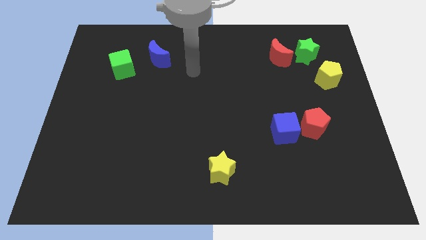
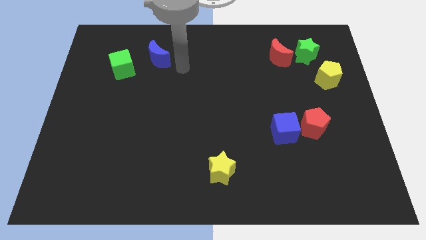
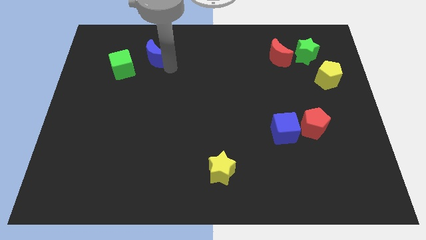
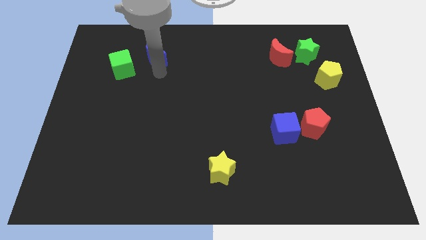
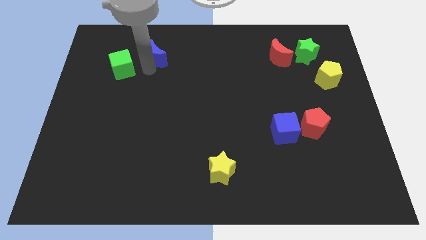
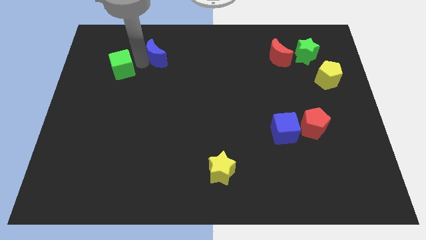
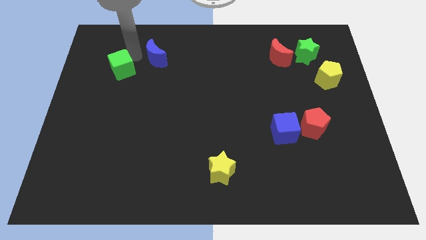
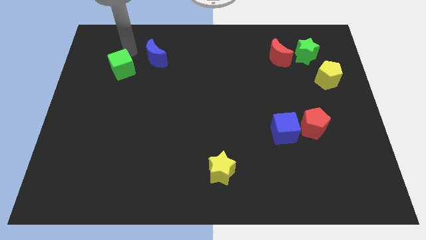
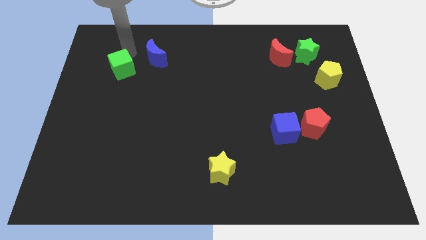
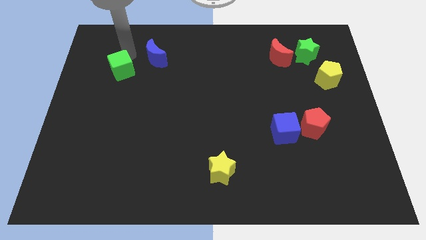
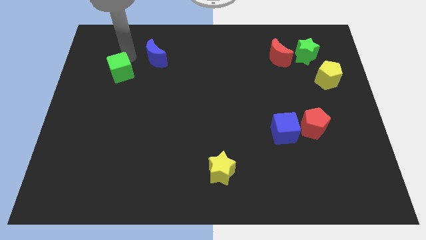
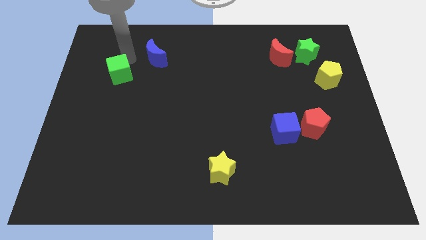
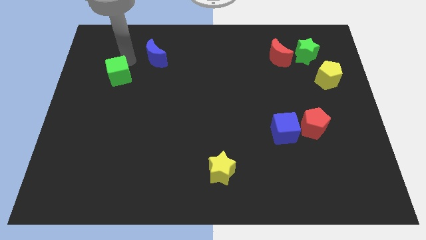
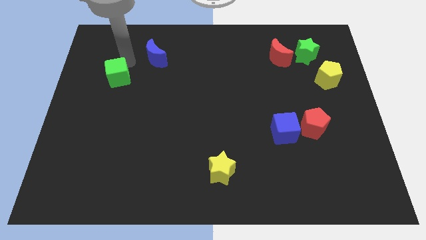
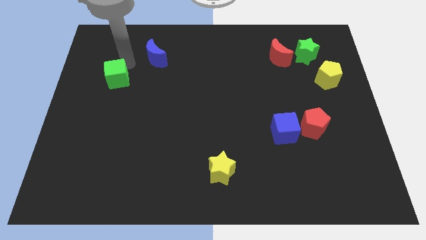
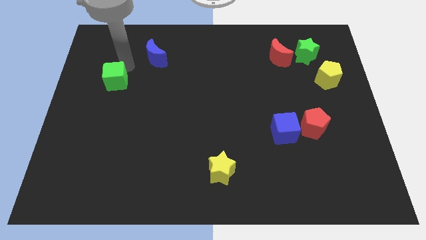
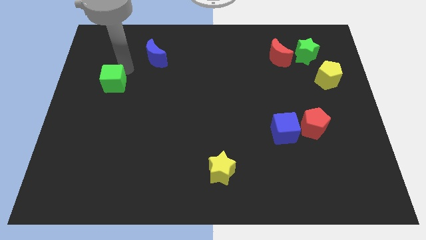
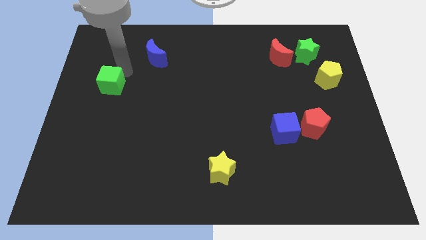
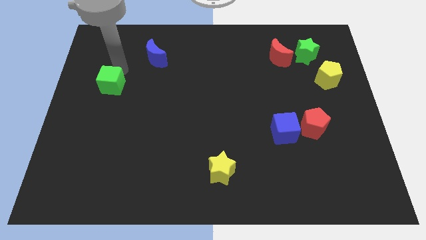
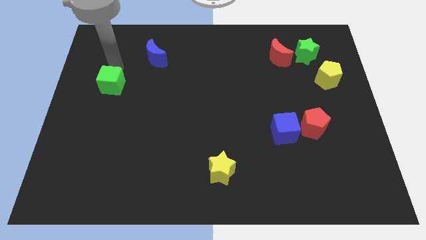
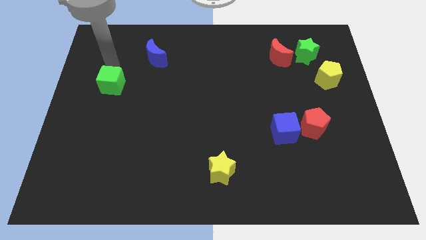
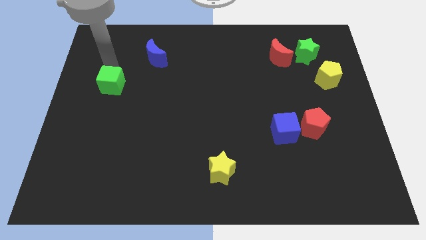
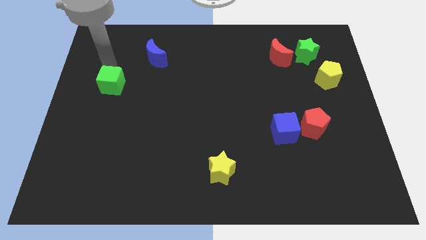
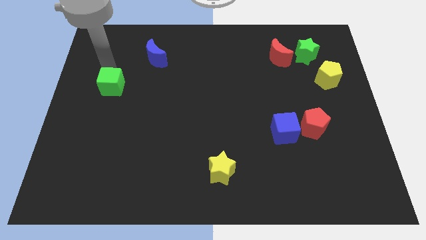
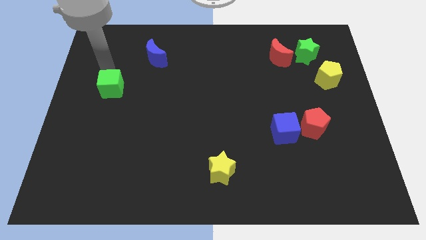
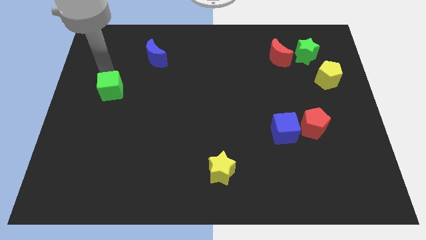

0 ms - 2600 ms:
slightly slide the green cube downwards

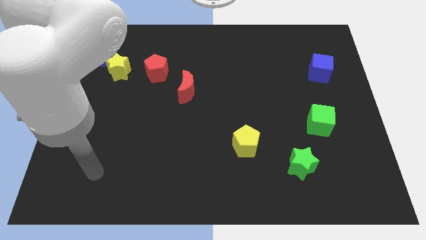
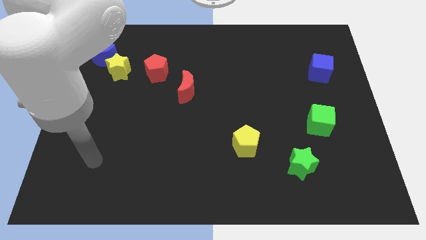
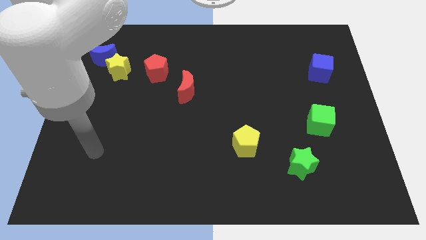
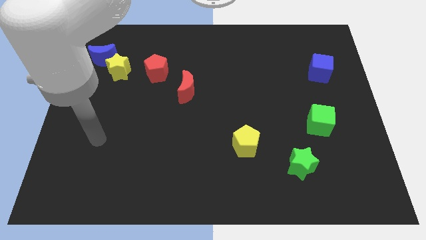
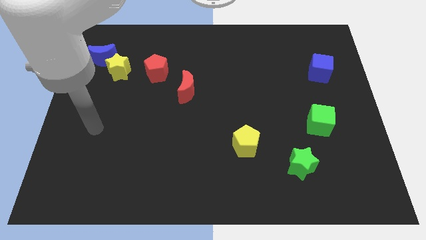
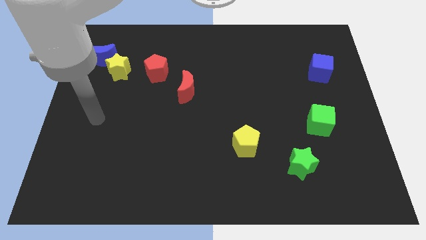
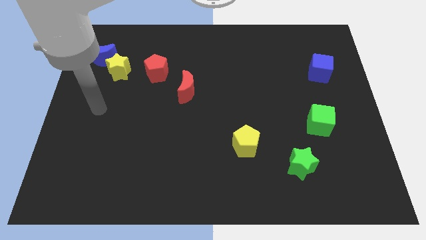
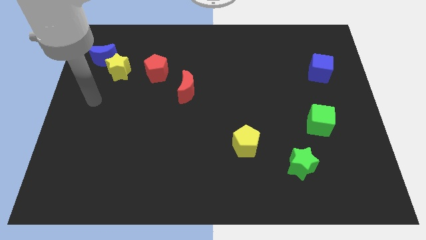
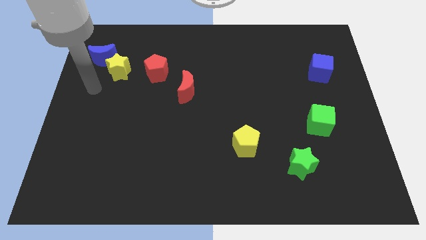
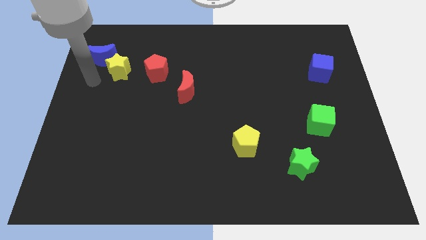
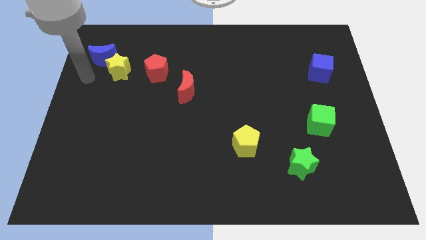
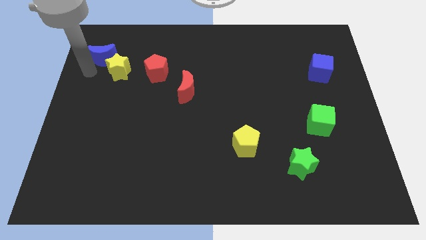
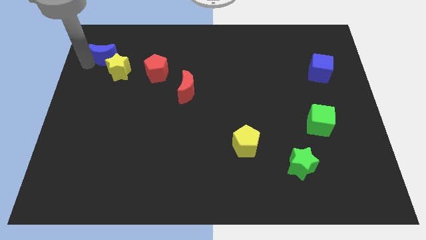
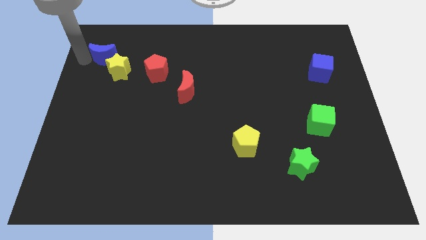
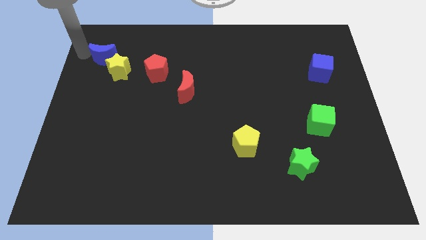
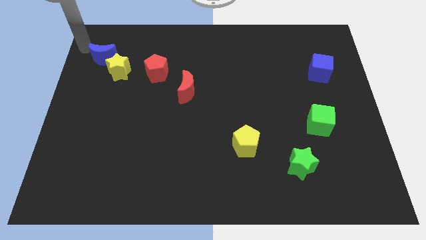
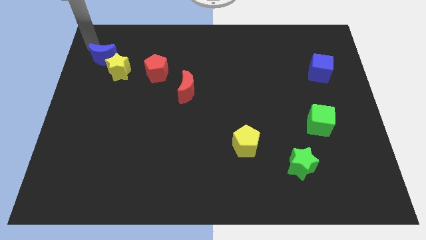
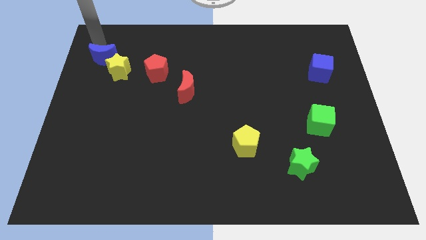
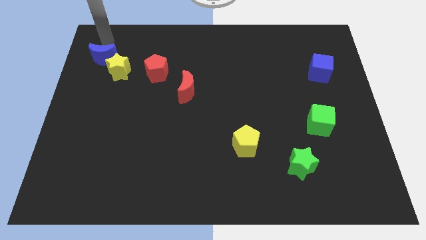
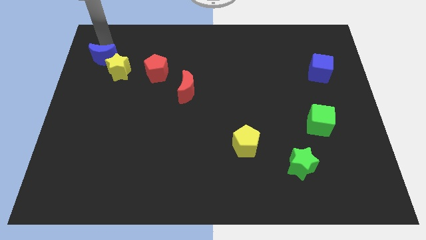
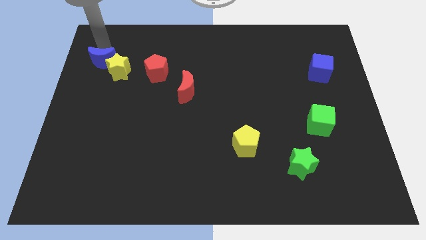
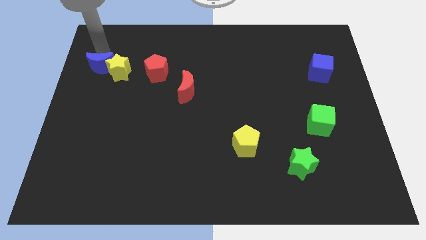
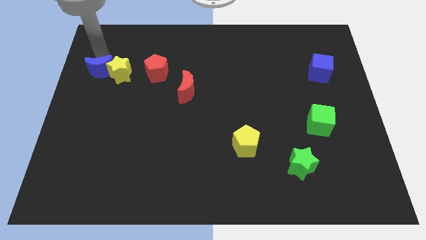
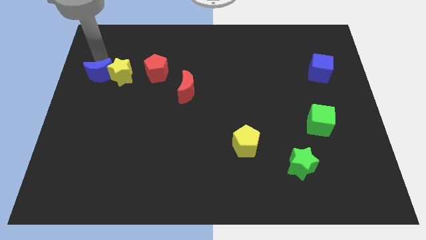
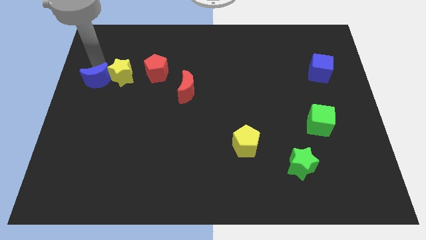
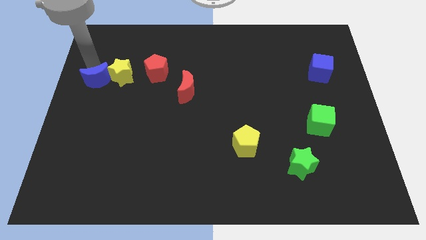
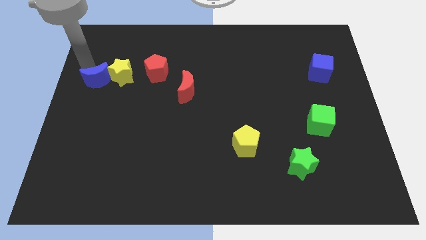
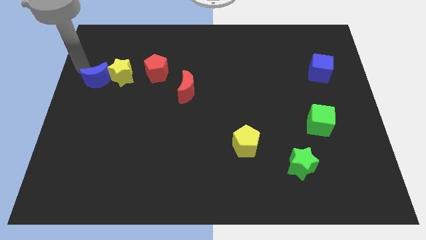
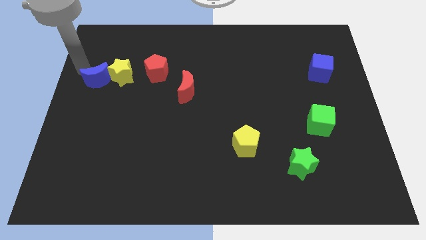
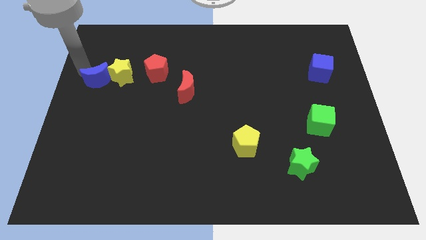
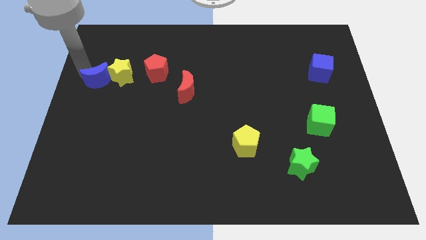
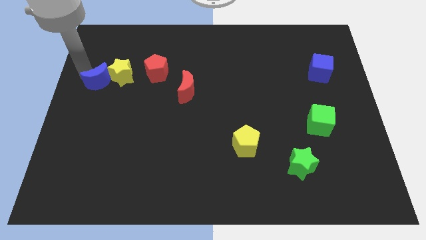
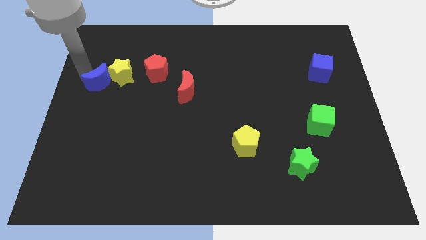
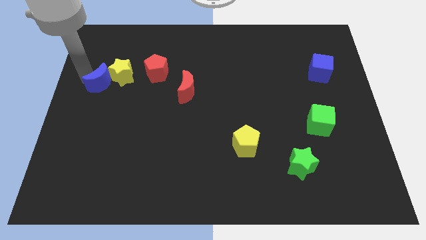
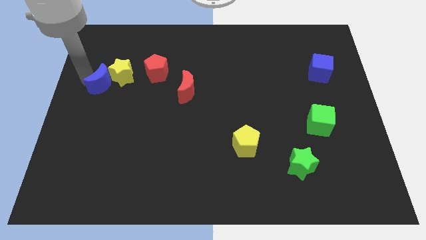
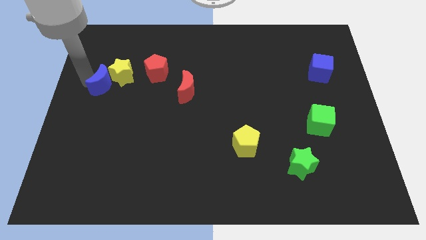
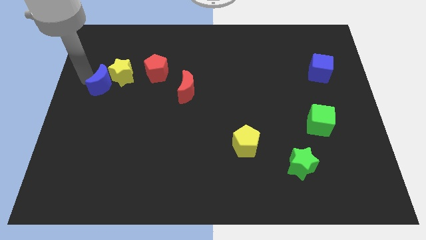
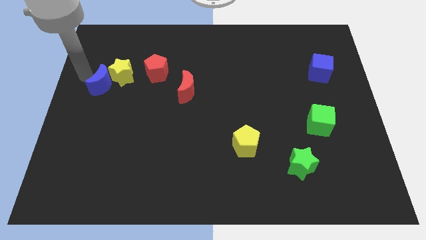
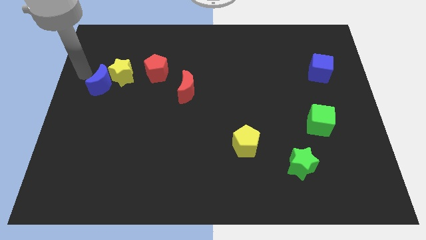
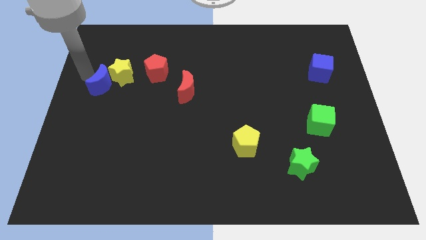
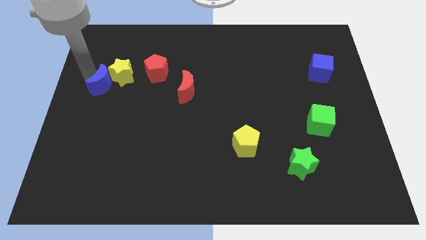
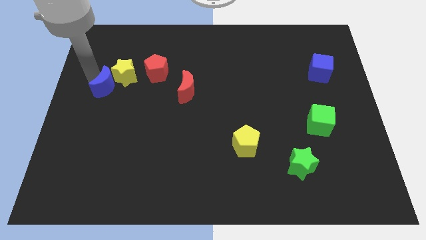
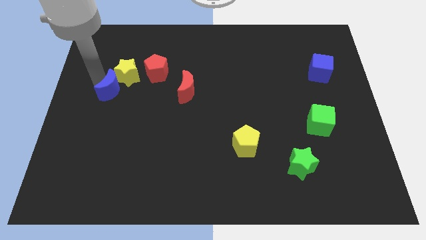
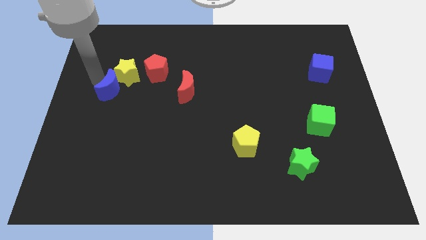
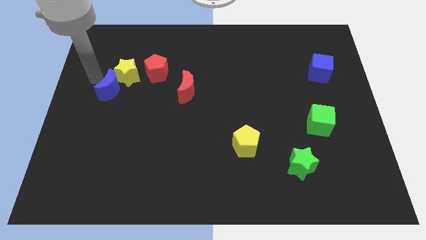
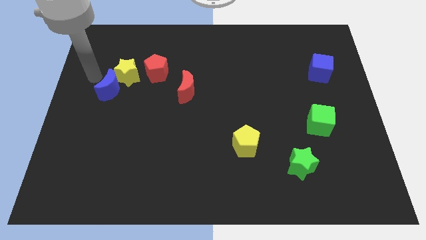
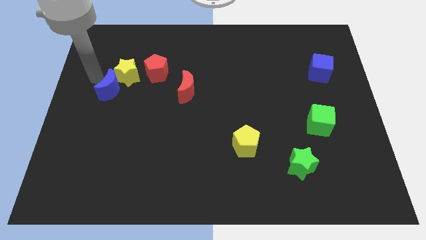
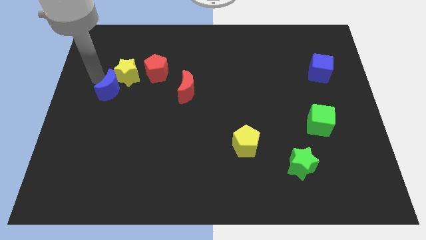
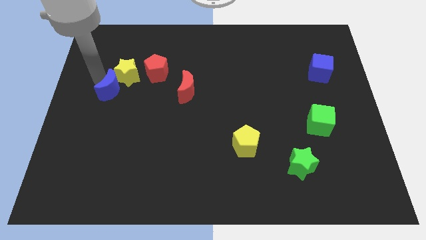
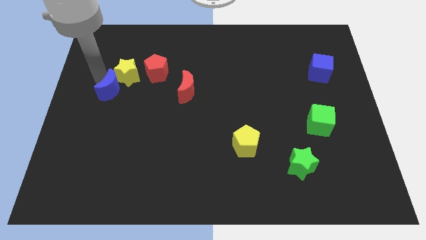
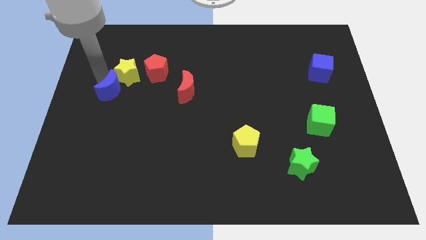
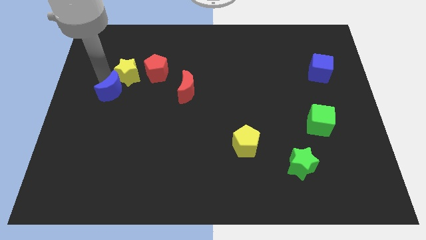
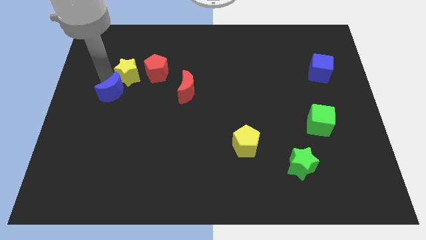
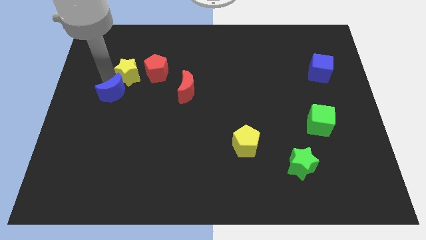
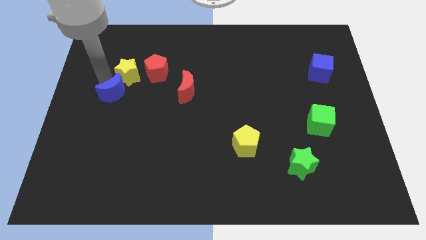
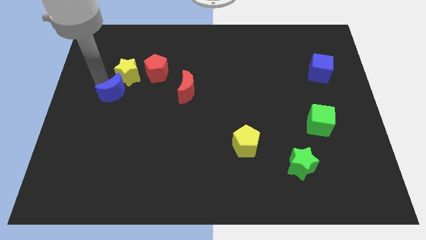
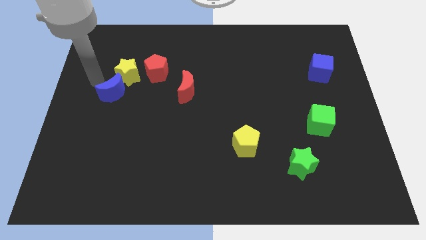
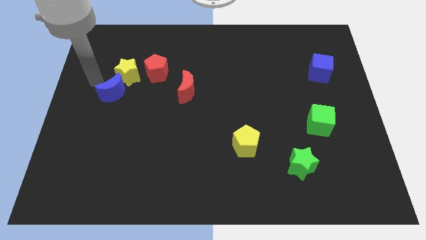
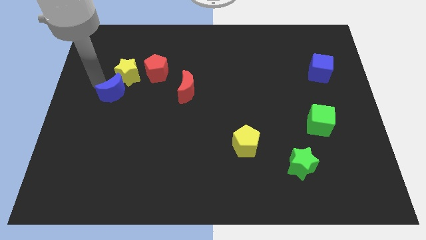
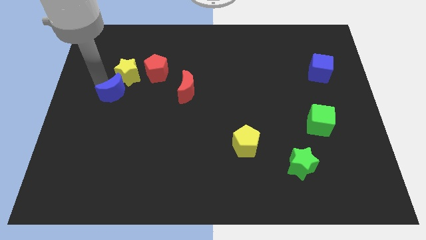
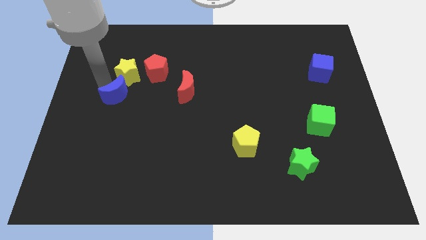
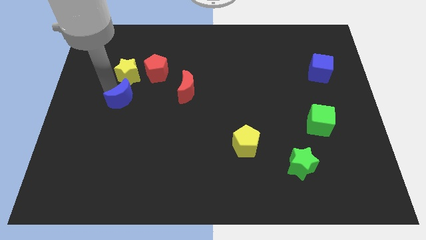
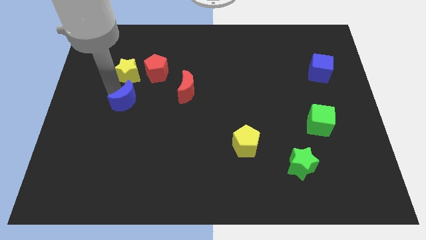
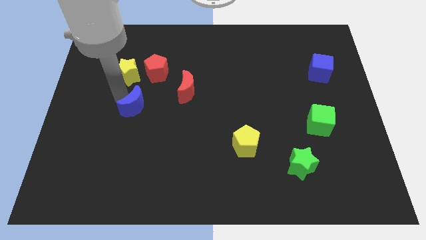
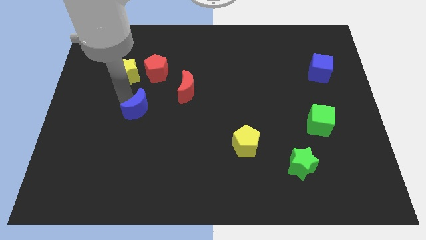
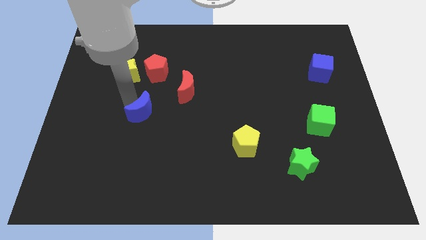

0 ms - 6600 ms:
move the blue moon down and then right
